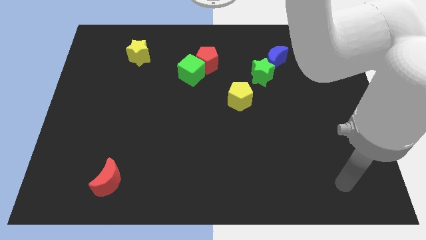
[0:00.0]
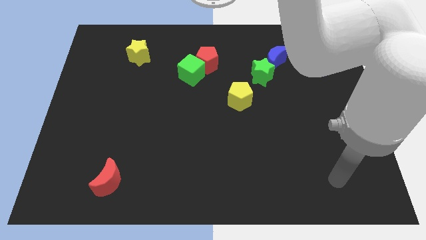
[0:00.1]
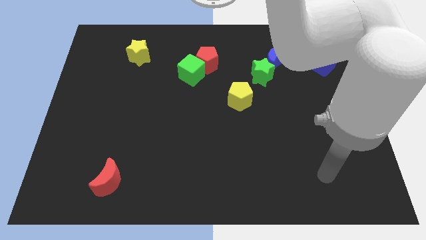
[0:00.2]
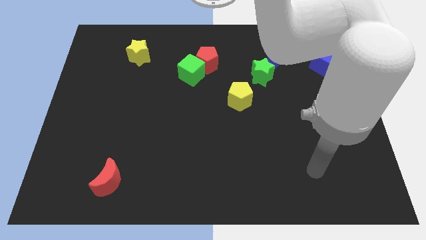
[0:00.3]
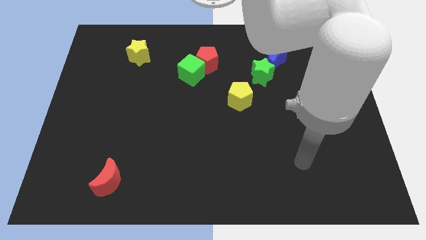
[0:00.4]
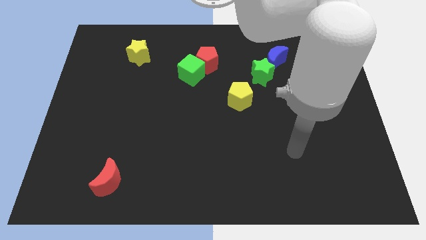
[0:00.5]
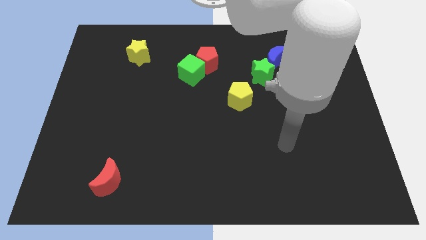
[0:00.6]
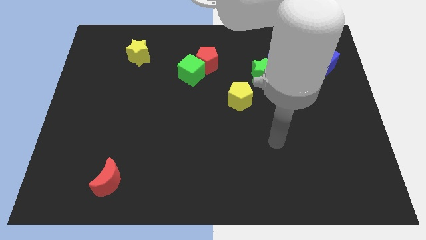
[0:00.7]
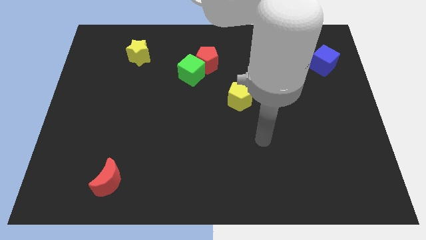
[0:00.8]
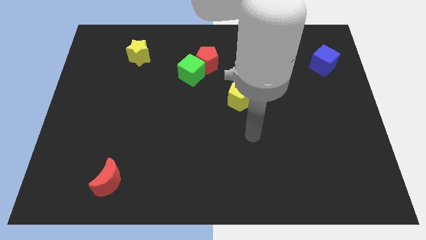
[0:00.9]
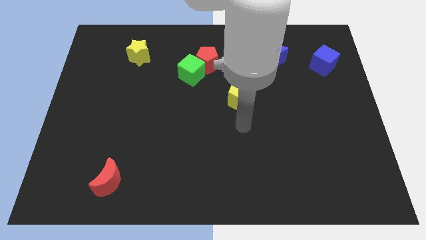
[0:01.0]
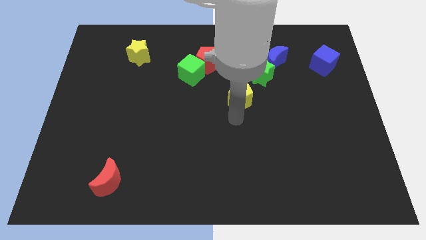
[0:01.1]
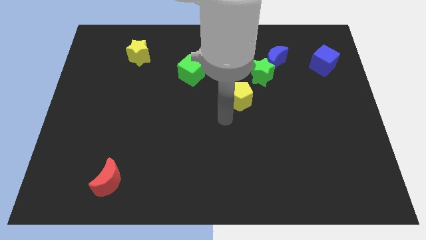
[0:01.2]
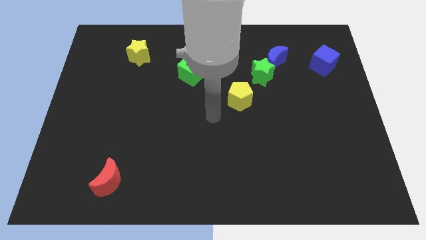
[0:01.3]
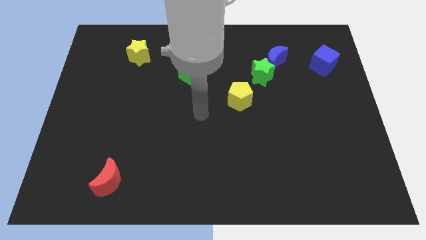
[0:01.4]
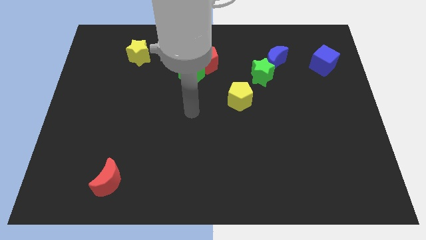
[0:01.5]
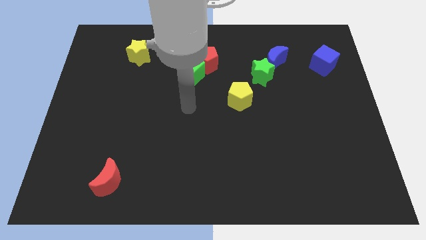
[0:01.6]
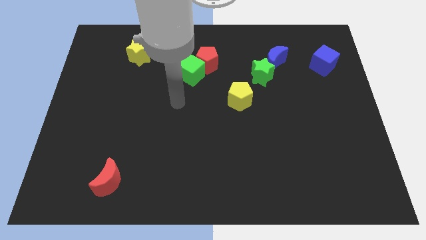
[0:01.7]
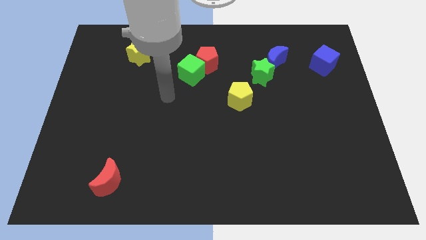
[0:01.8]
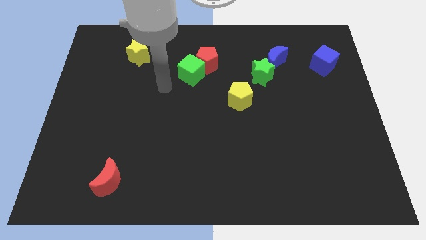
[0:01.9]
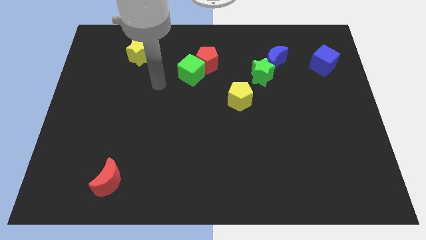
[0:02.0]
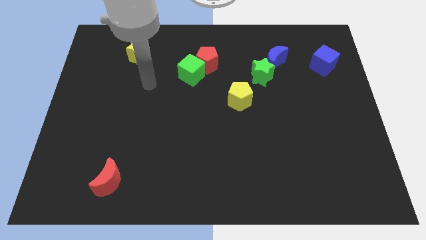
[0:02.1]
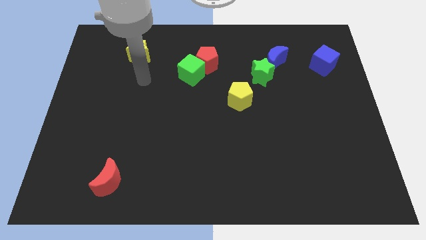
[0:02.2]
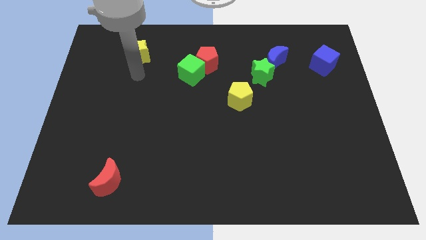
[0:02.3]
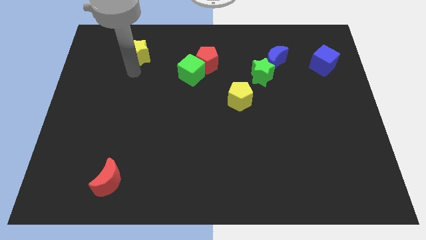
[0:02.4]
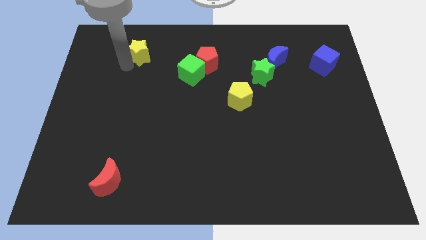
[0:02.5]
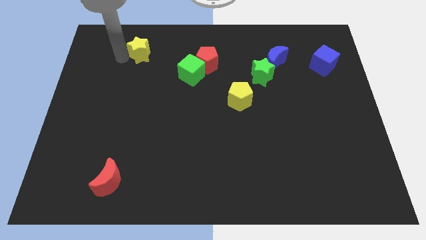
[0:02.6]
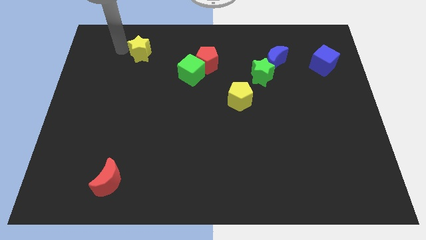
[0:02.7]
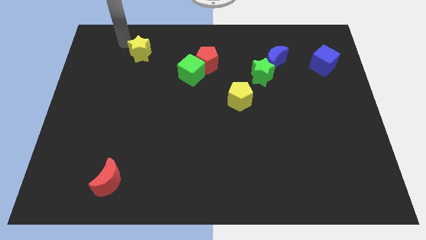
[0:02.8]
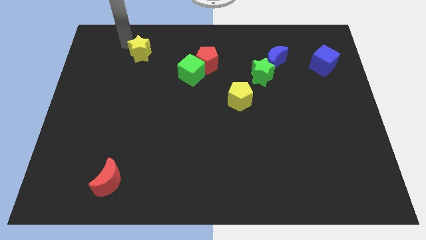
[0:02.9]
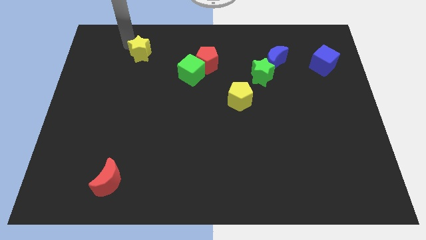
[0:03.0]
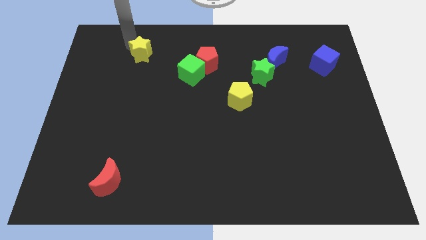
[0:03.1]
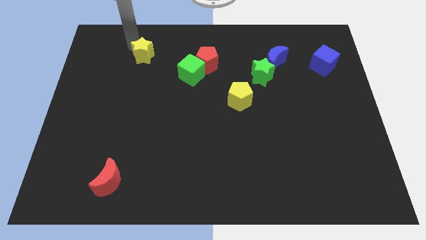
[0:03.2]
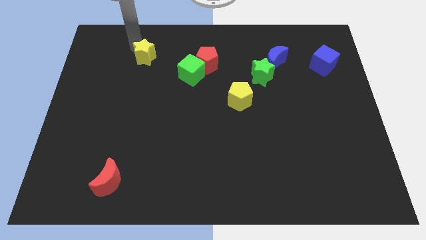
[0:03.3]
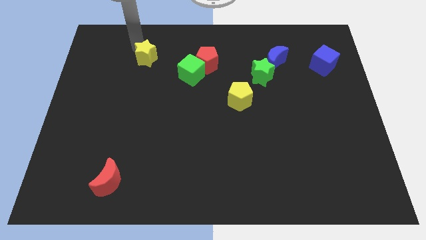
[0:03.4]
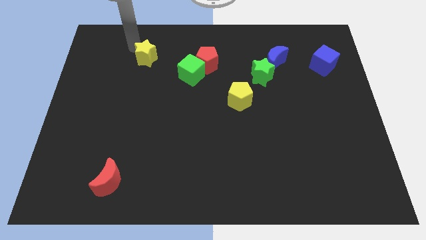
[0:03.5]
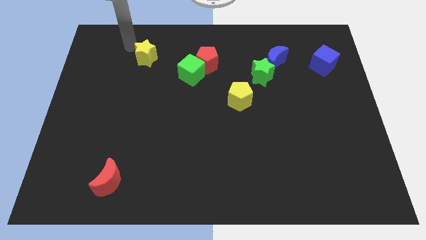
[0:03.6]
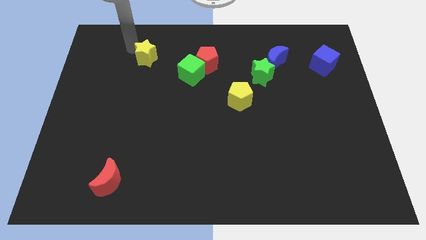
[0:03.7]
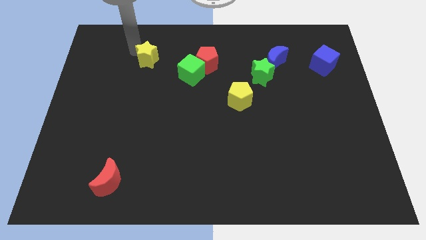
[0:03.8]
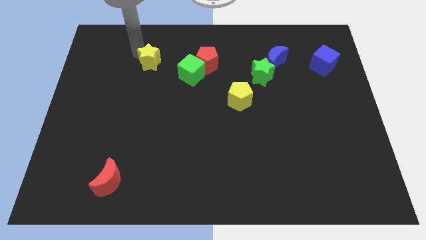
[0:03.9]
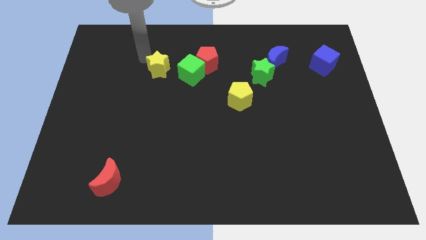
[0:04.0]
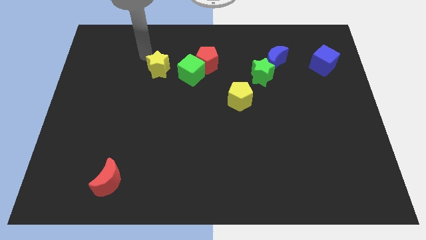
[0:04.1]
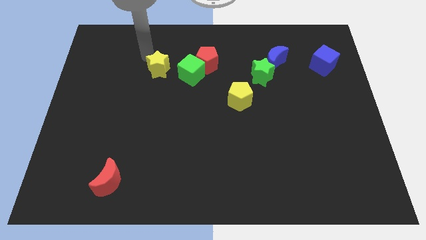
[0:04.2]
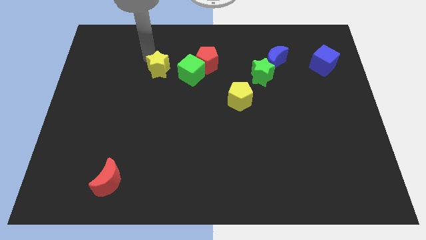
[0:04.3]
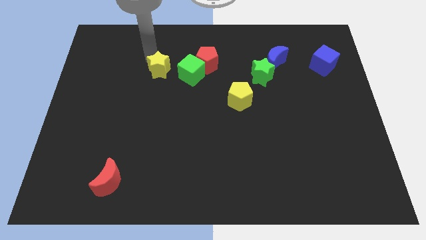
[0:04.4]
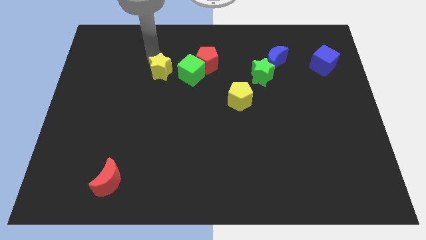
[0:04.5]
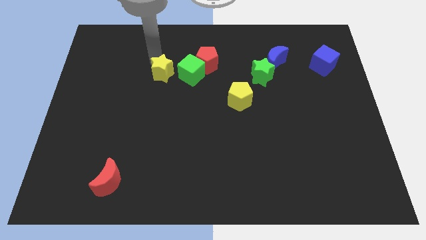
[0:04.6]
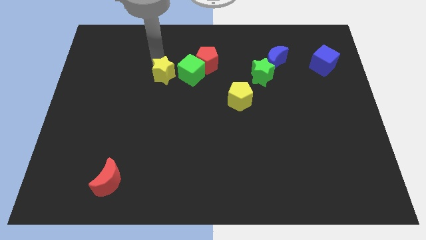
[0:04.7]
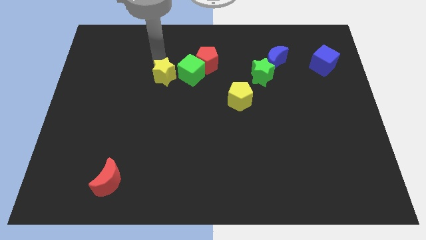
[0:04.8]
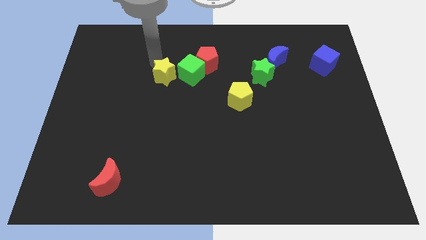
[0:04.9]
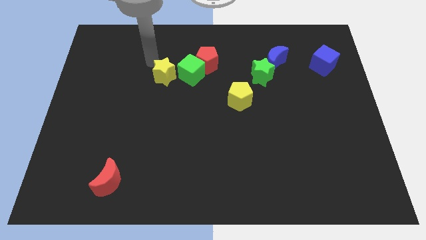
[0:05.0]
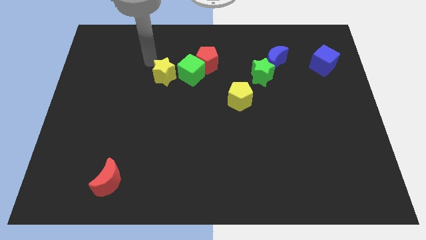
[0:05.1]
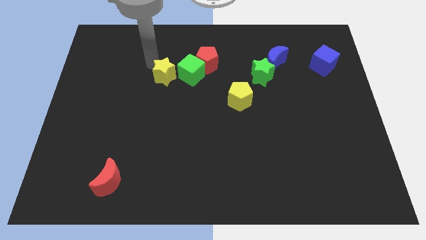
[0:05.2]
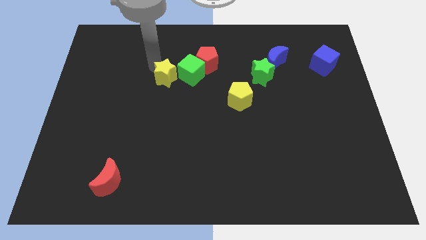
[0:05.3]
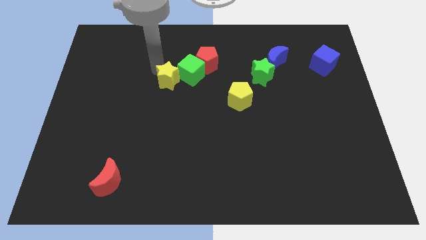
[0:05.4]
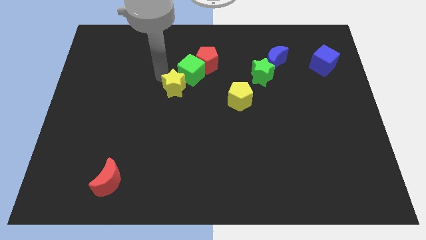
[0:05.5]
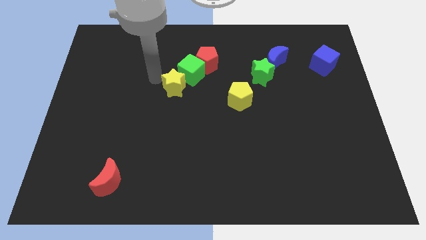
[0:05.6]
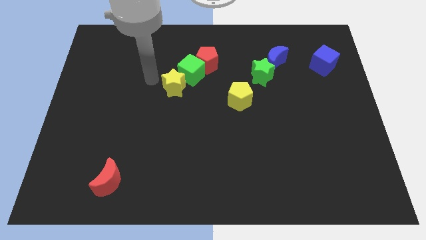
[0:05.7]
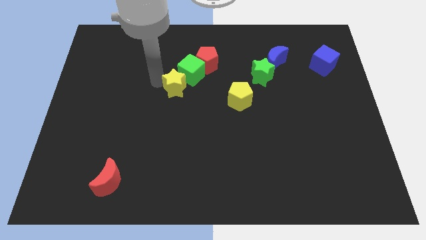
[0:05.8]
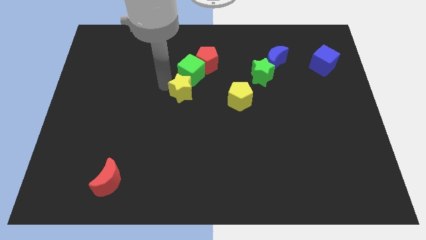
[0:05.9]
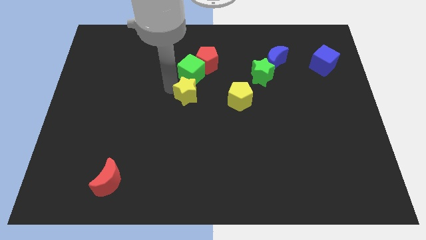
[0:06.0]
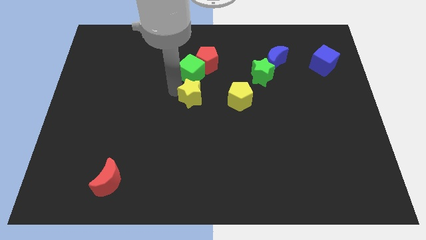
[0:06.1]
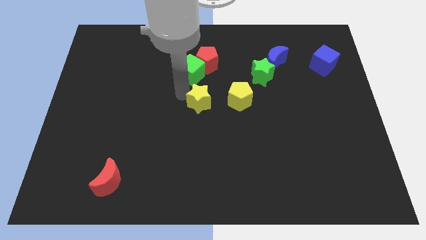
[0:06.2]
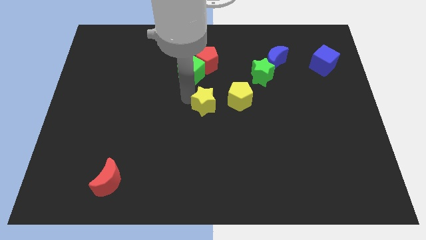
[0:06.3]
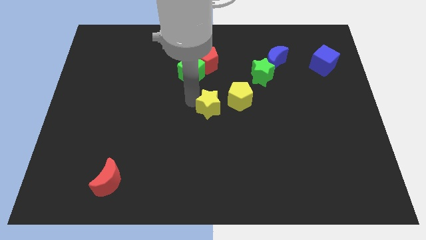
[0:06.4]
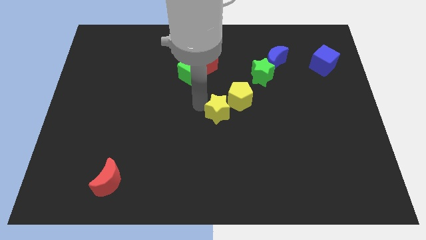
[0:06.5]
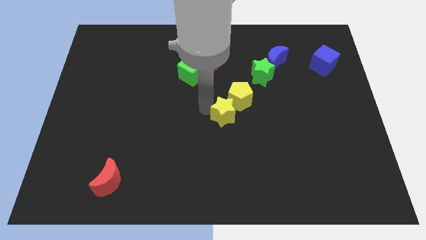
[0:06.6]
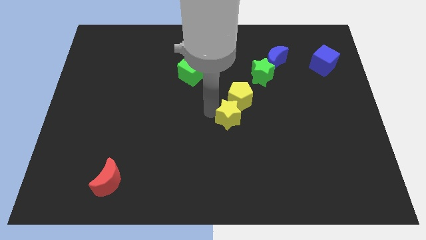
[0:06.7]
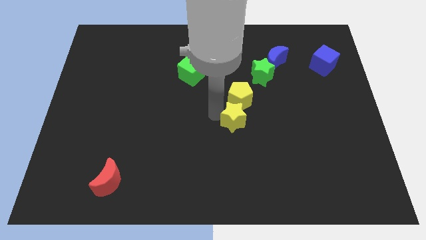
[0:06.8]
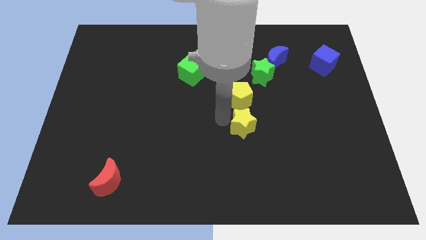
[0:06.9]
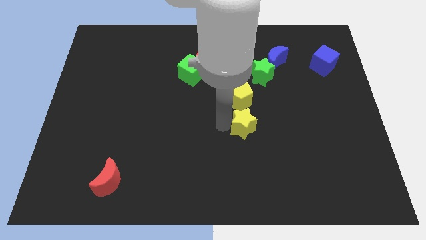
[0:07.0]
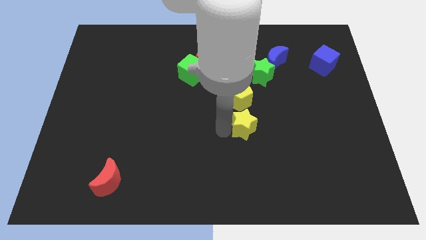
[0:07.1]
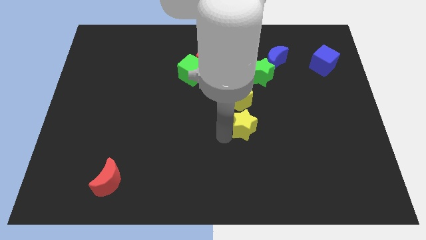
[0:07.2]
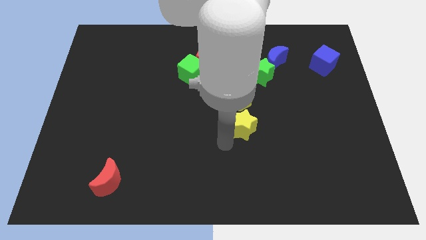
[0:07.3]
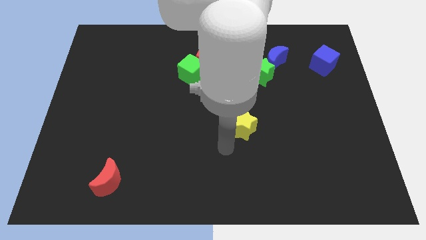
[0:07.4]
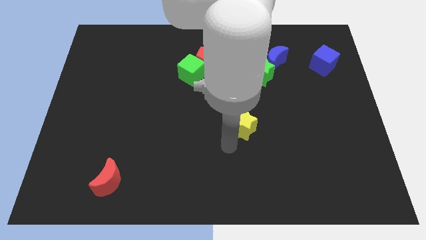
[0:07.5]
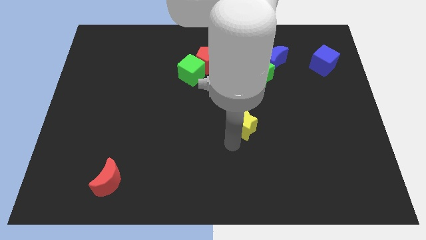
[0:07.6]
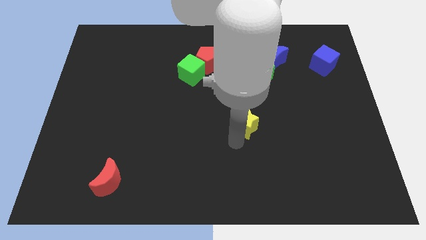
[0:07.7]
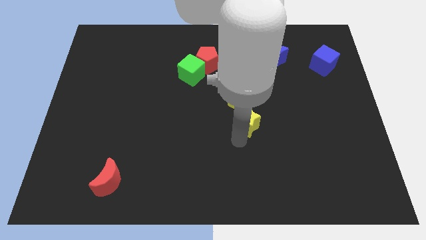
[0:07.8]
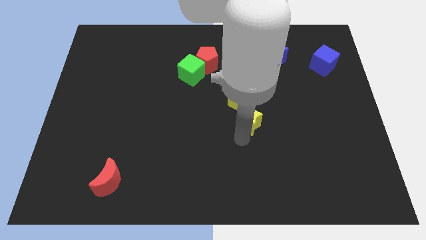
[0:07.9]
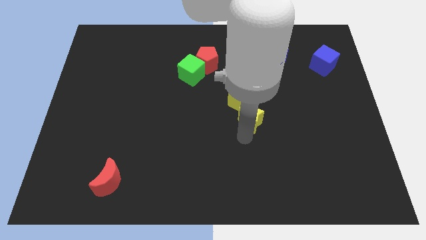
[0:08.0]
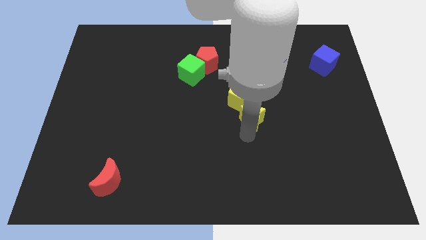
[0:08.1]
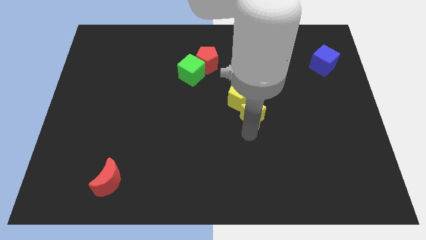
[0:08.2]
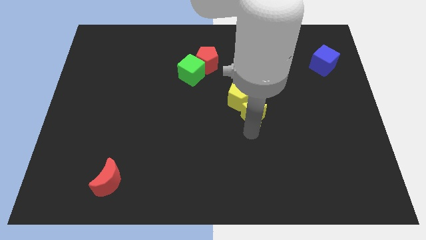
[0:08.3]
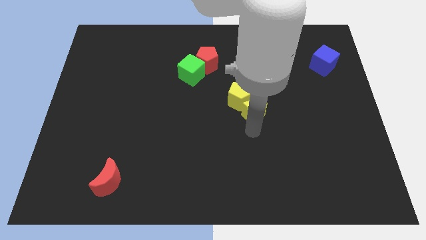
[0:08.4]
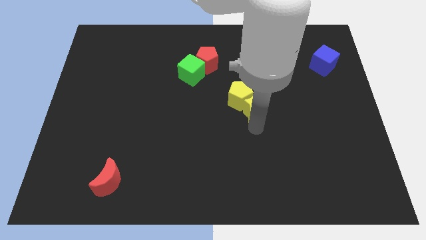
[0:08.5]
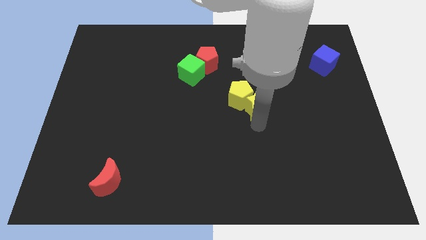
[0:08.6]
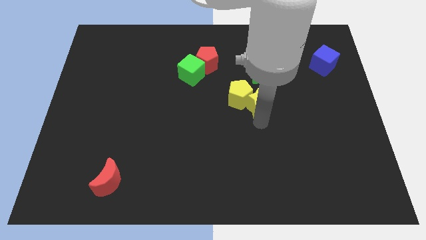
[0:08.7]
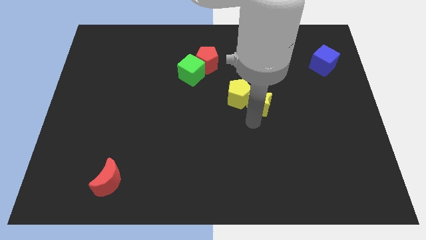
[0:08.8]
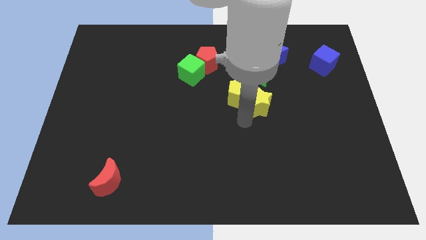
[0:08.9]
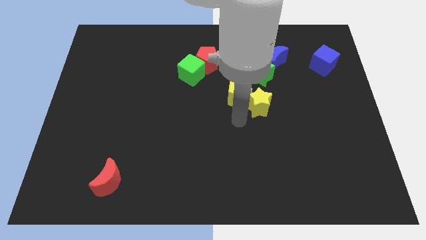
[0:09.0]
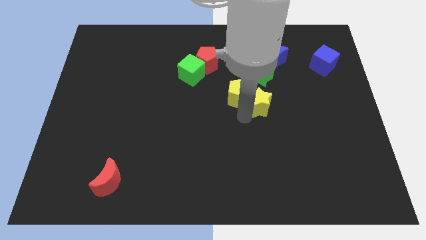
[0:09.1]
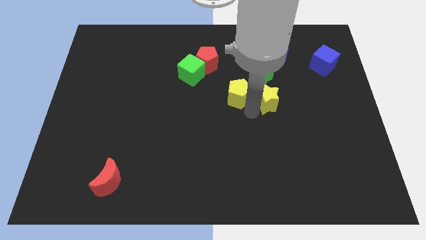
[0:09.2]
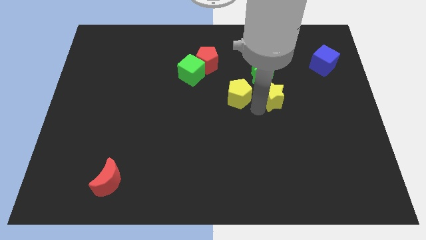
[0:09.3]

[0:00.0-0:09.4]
put the yellow star to the bottom right of the green star
